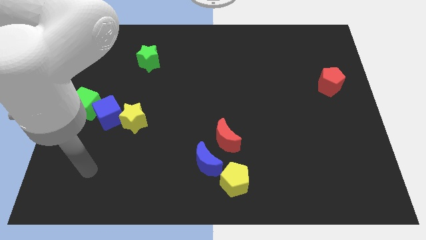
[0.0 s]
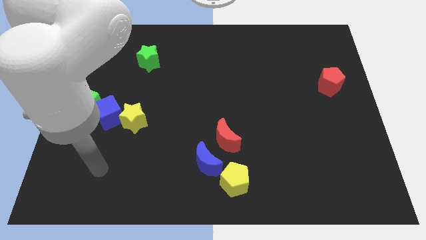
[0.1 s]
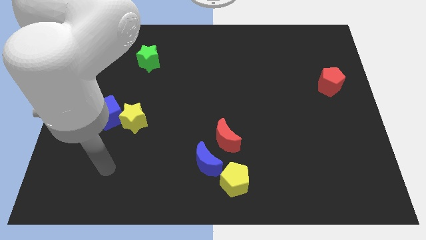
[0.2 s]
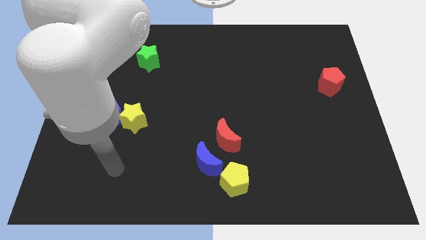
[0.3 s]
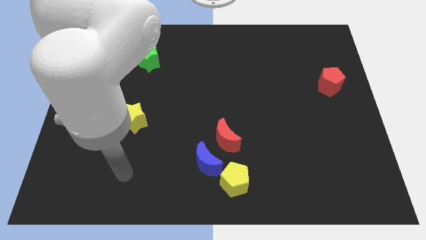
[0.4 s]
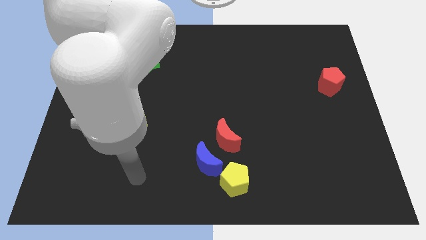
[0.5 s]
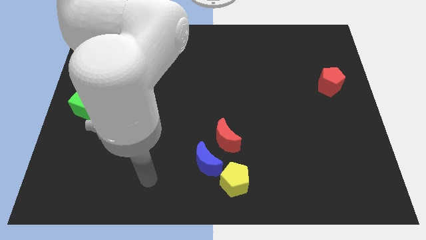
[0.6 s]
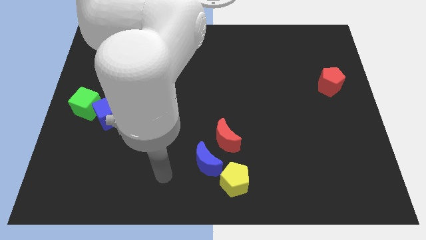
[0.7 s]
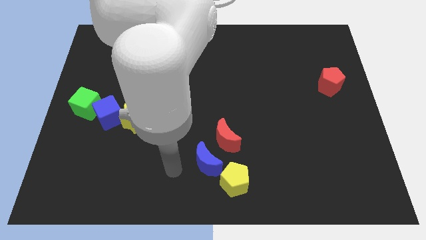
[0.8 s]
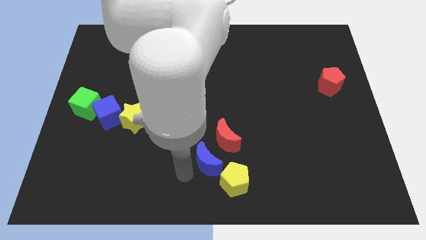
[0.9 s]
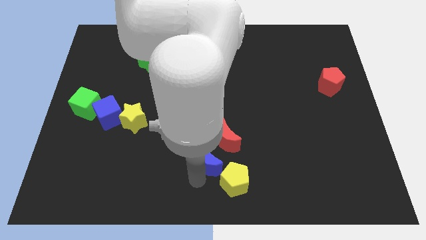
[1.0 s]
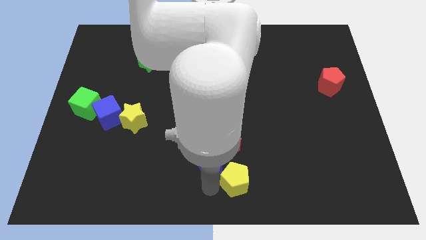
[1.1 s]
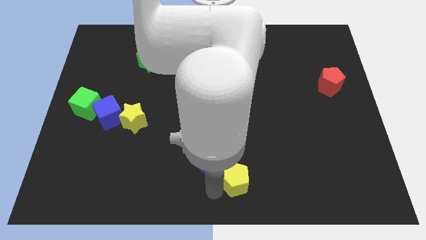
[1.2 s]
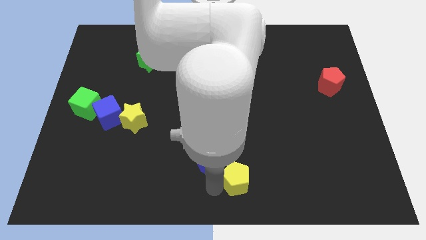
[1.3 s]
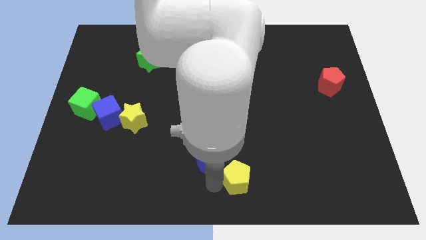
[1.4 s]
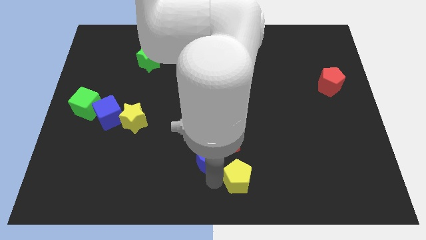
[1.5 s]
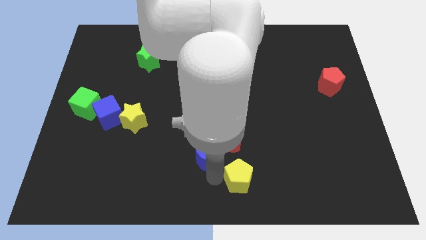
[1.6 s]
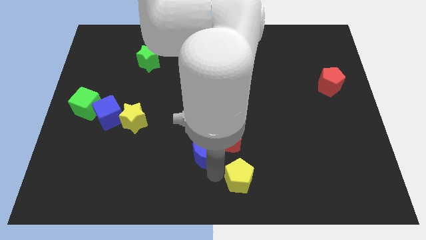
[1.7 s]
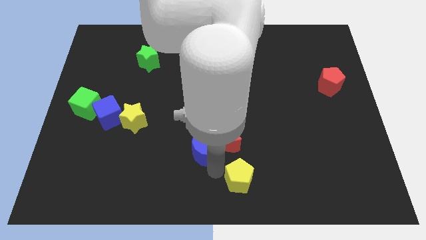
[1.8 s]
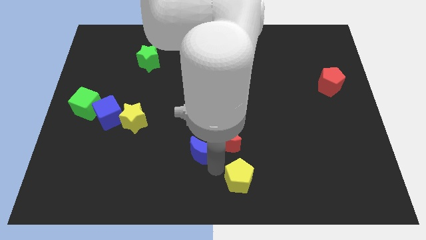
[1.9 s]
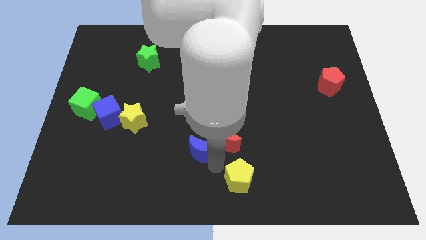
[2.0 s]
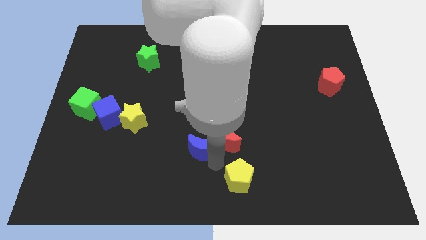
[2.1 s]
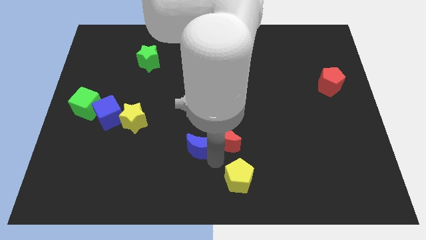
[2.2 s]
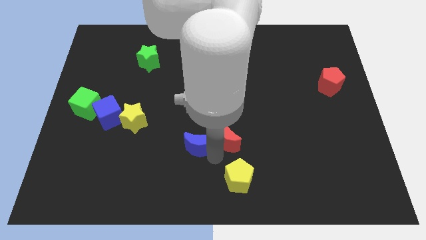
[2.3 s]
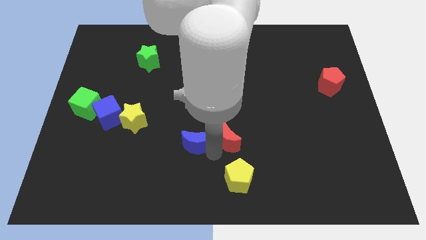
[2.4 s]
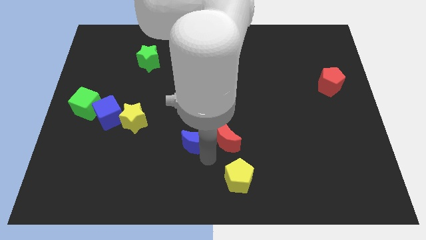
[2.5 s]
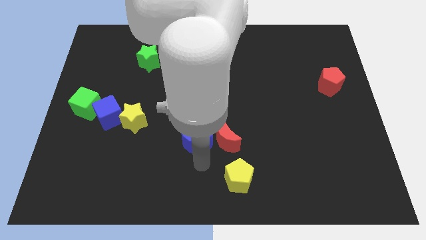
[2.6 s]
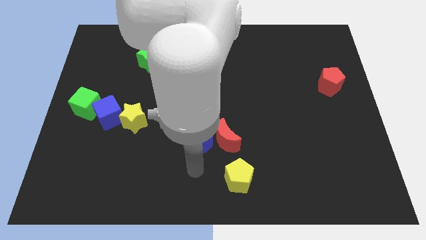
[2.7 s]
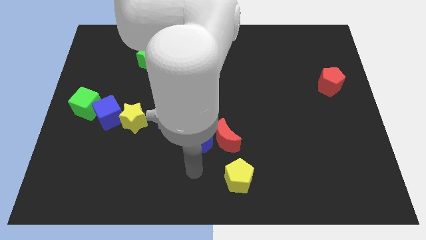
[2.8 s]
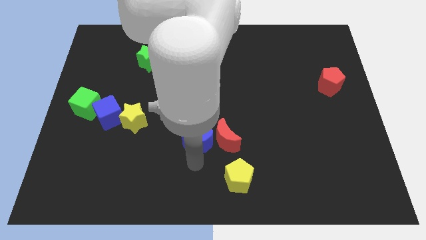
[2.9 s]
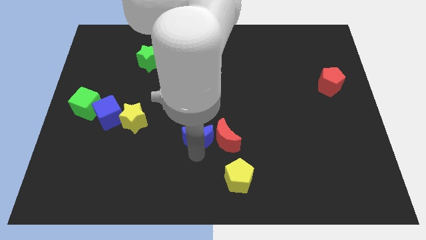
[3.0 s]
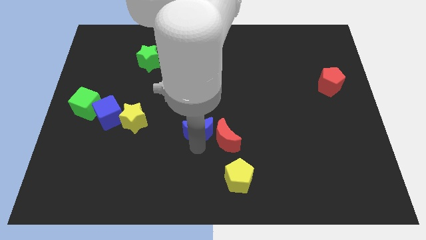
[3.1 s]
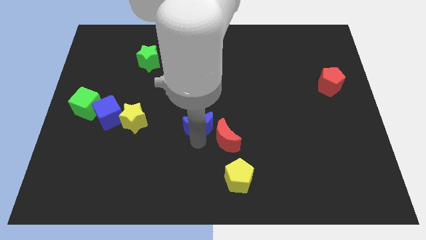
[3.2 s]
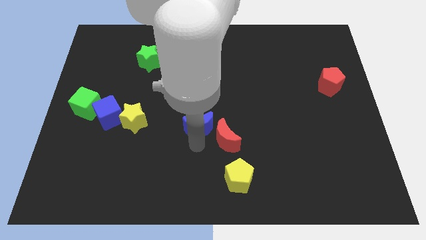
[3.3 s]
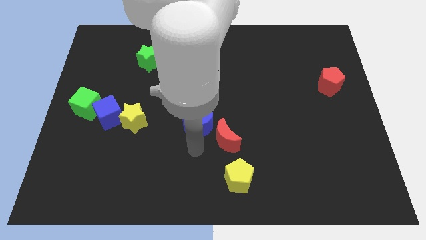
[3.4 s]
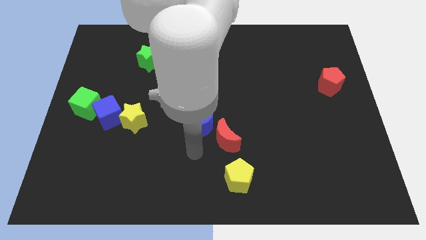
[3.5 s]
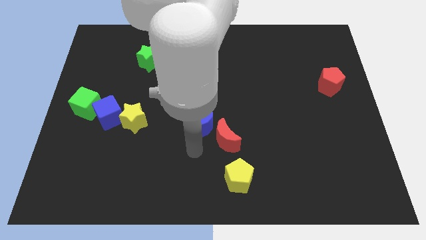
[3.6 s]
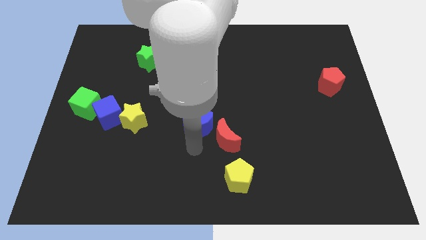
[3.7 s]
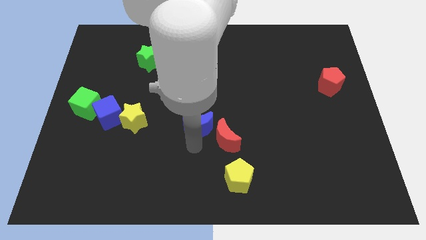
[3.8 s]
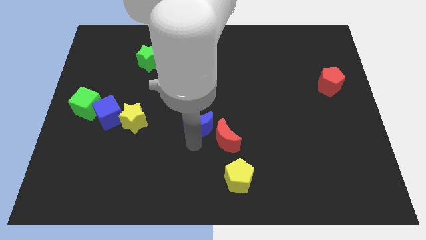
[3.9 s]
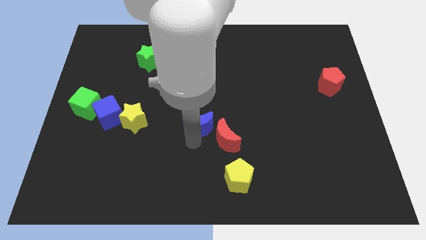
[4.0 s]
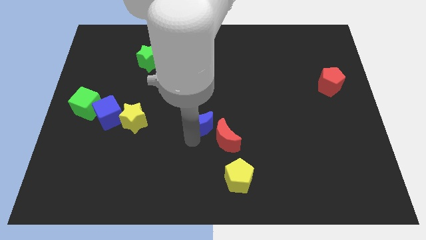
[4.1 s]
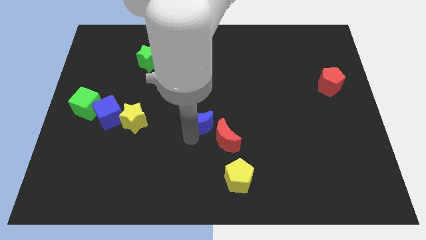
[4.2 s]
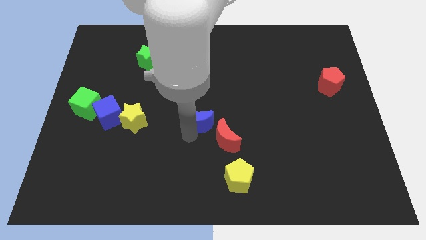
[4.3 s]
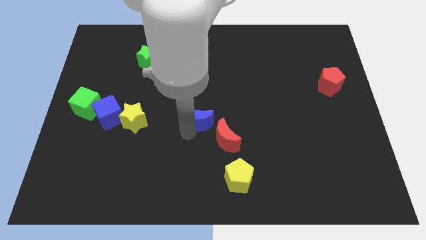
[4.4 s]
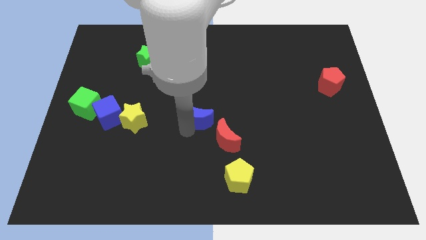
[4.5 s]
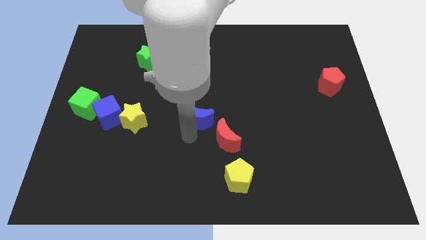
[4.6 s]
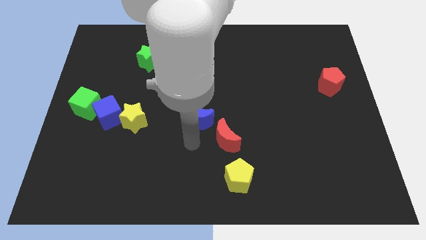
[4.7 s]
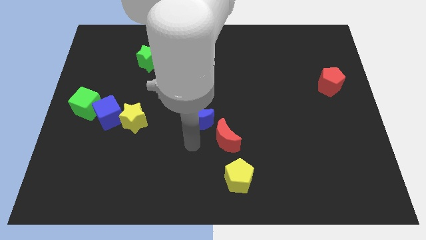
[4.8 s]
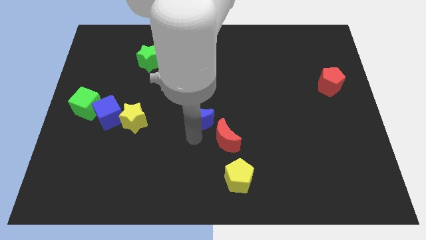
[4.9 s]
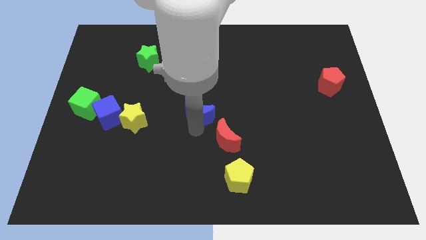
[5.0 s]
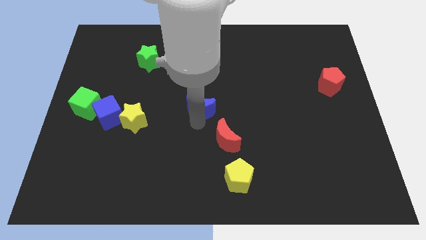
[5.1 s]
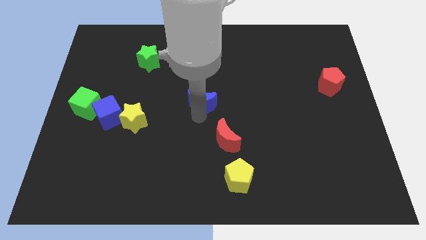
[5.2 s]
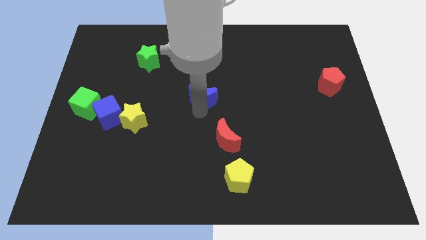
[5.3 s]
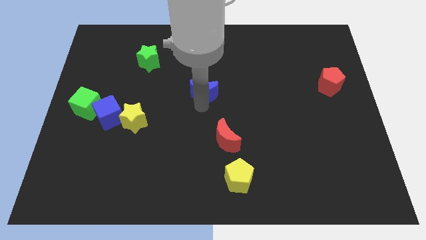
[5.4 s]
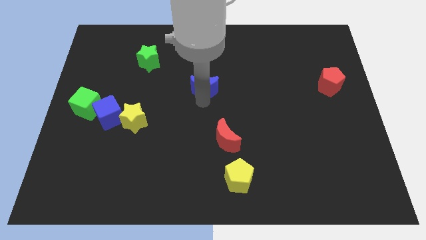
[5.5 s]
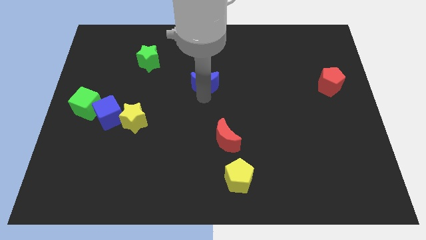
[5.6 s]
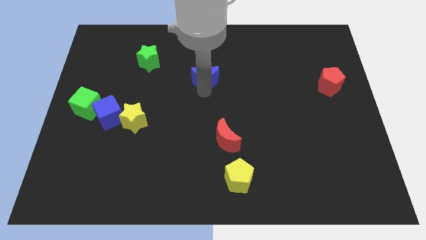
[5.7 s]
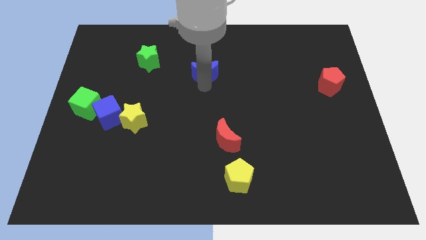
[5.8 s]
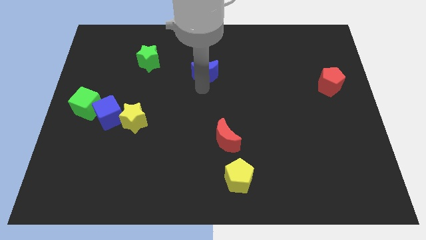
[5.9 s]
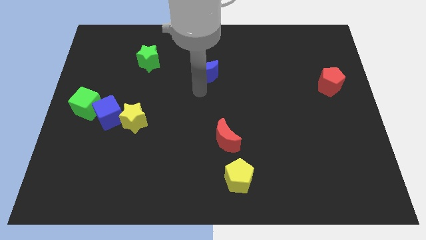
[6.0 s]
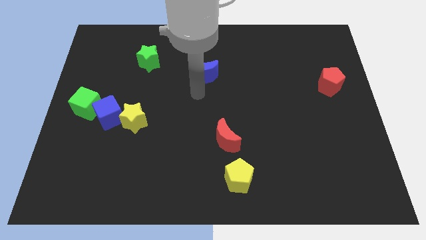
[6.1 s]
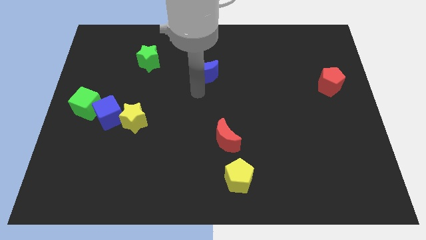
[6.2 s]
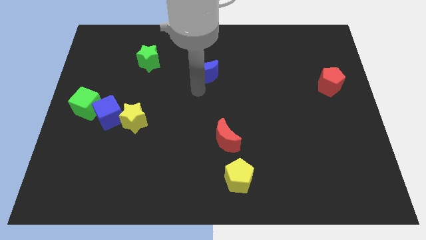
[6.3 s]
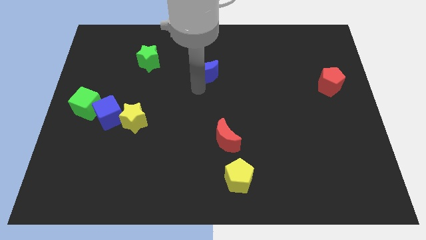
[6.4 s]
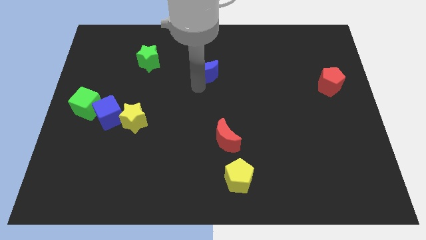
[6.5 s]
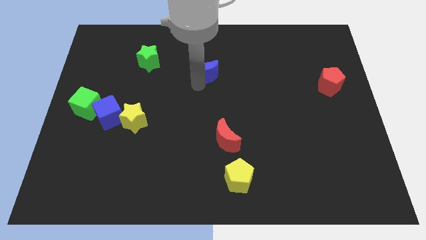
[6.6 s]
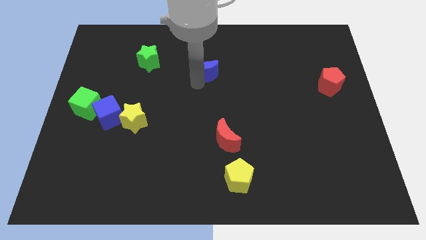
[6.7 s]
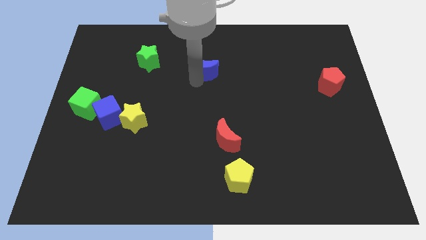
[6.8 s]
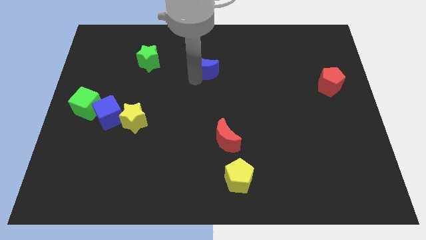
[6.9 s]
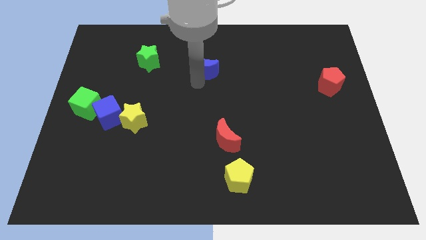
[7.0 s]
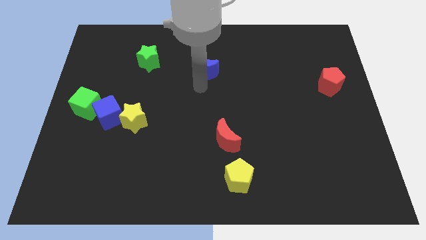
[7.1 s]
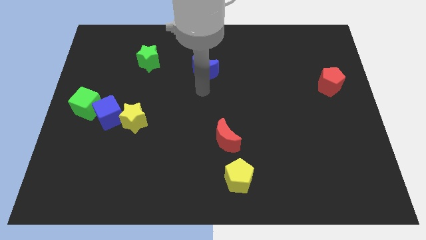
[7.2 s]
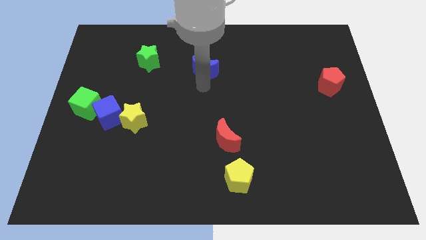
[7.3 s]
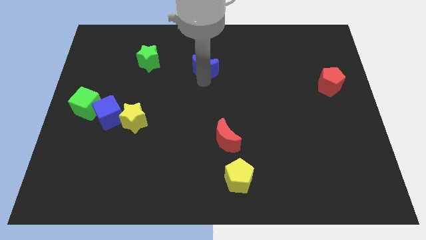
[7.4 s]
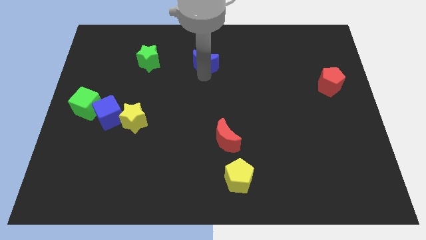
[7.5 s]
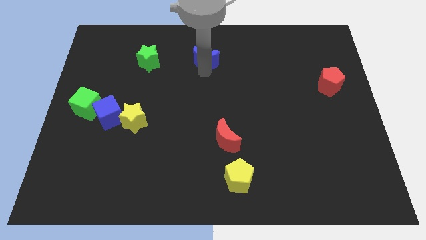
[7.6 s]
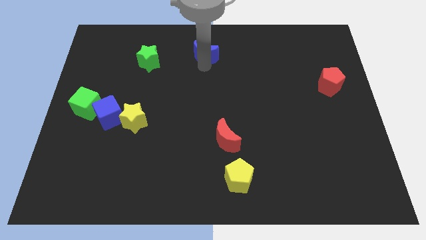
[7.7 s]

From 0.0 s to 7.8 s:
slide the blue moon to the towards your base
